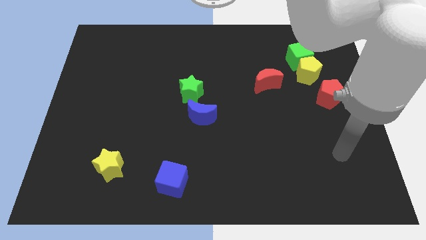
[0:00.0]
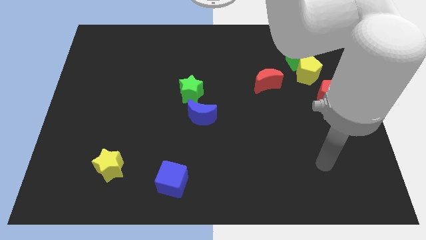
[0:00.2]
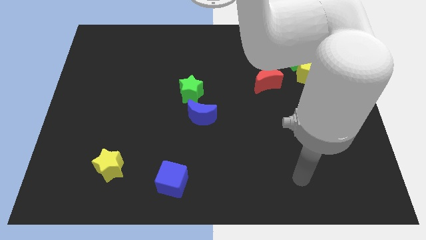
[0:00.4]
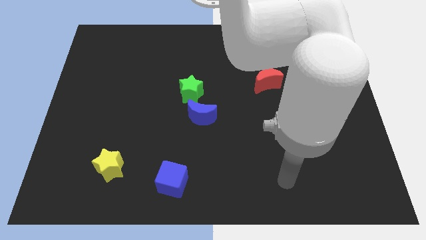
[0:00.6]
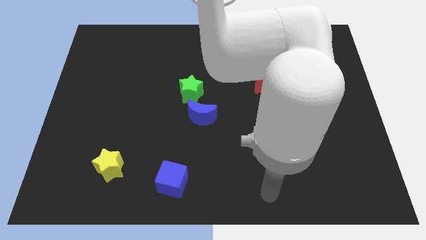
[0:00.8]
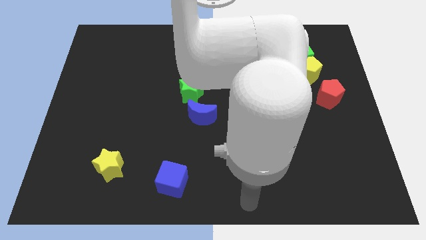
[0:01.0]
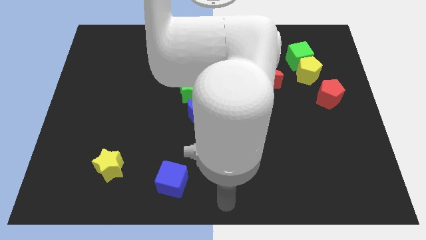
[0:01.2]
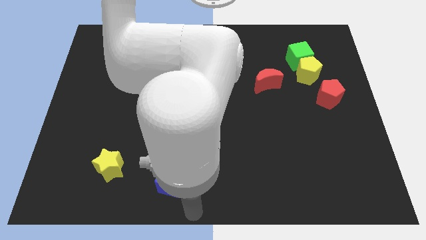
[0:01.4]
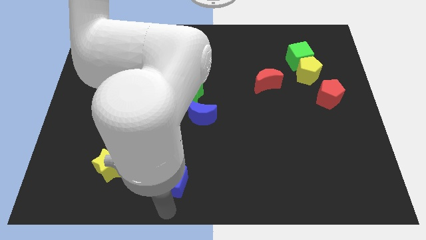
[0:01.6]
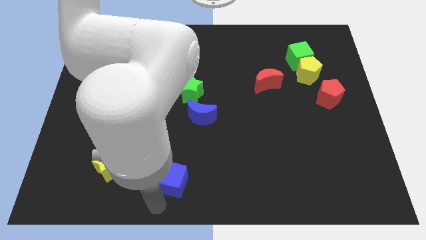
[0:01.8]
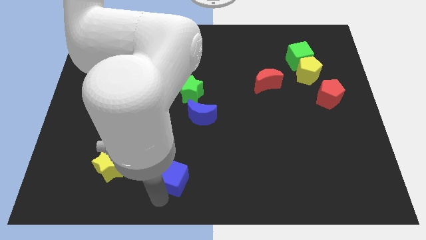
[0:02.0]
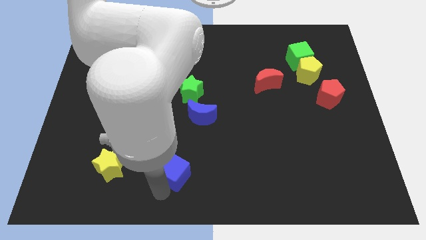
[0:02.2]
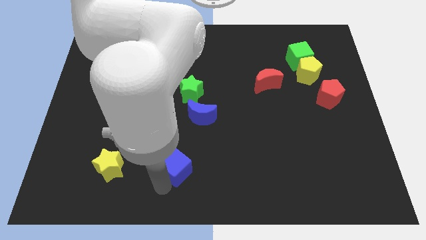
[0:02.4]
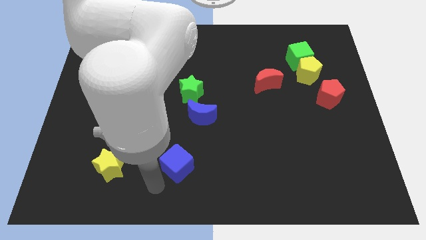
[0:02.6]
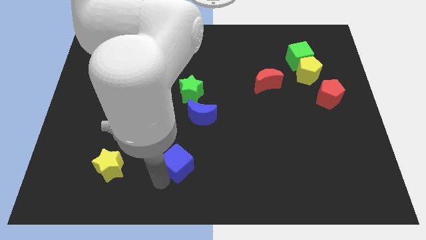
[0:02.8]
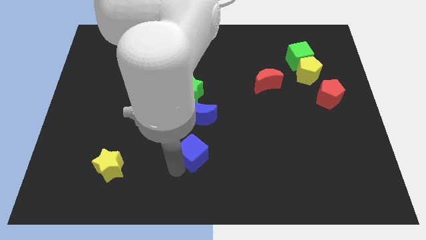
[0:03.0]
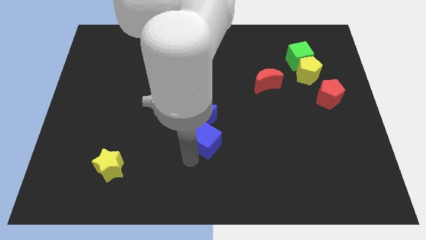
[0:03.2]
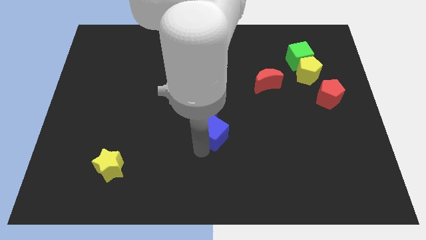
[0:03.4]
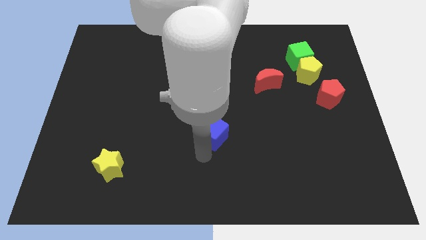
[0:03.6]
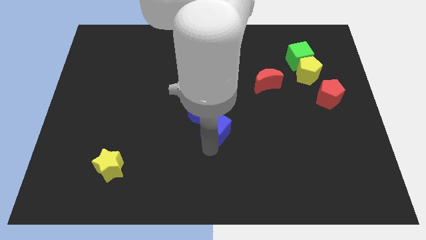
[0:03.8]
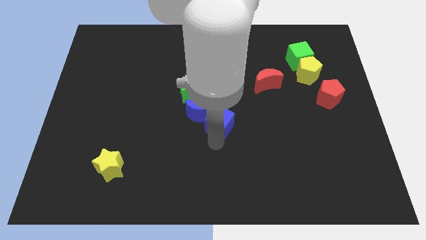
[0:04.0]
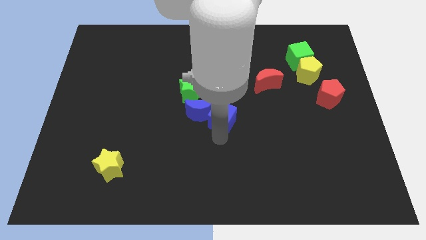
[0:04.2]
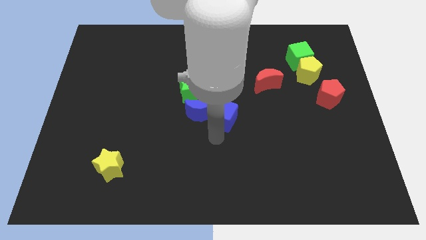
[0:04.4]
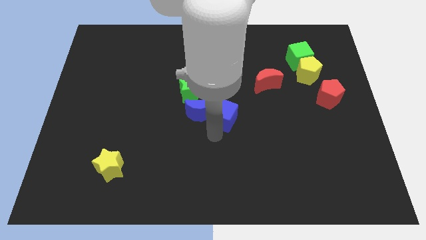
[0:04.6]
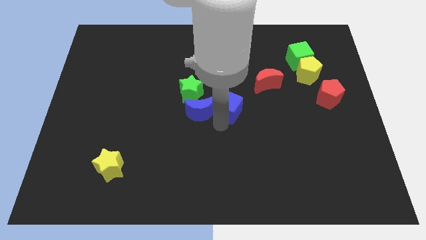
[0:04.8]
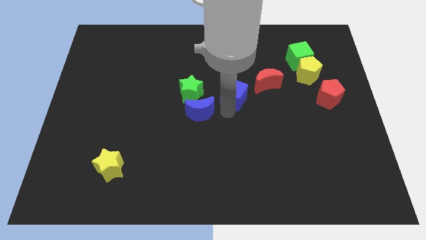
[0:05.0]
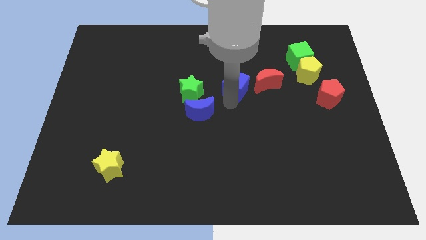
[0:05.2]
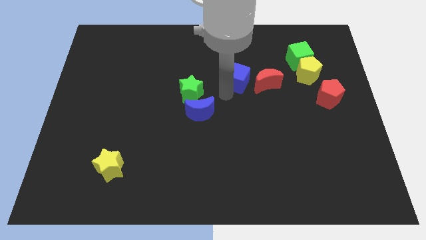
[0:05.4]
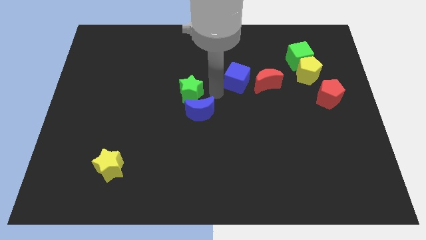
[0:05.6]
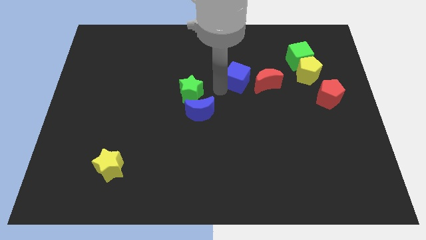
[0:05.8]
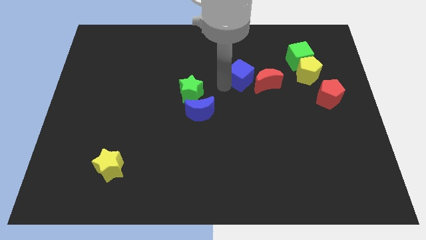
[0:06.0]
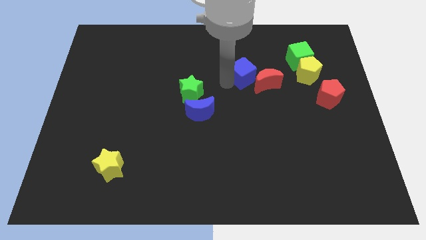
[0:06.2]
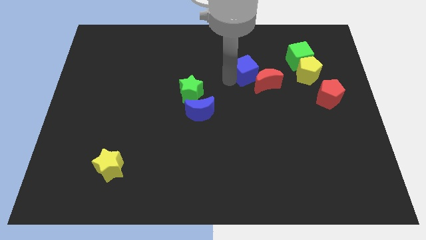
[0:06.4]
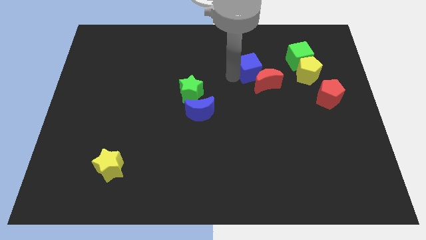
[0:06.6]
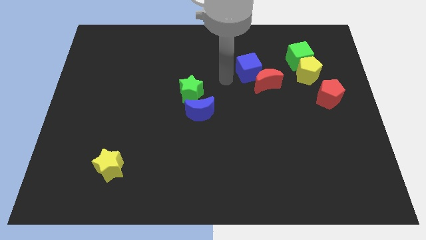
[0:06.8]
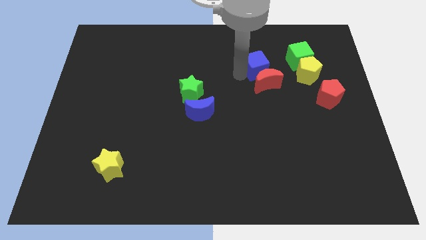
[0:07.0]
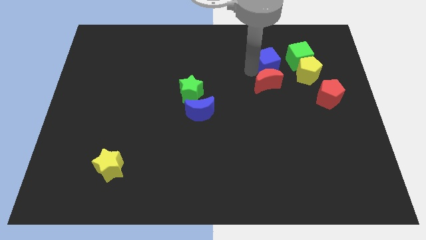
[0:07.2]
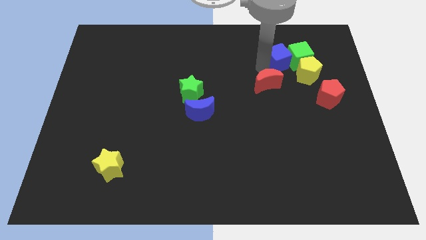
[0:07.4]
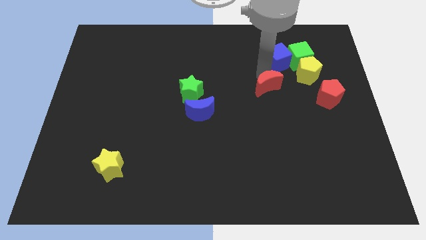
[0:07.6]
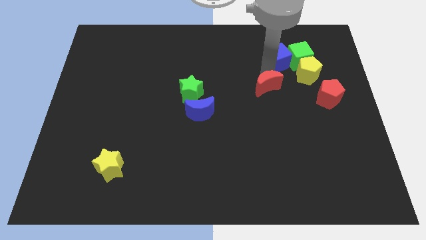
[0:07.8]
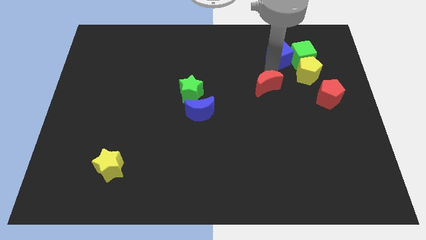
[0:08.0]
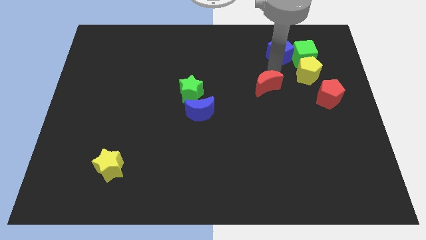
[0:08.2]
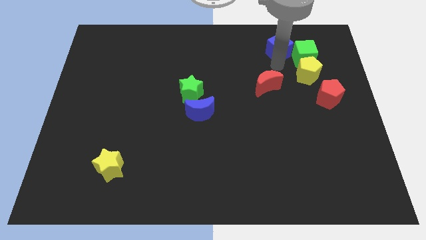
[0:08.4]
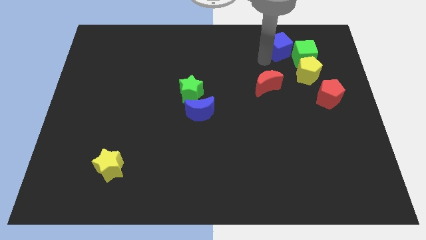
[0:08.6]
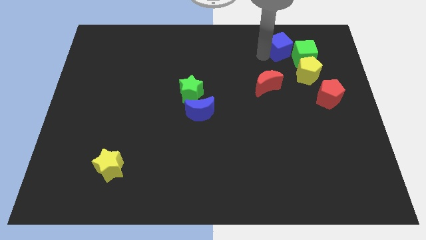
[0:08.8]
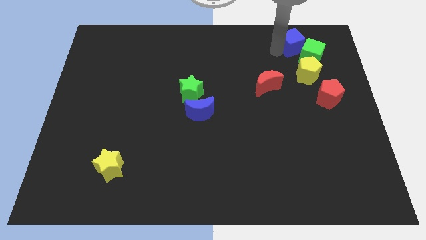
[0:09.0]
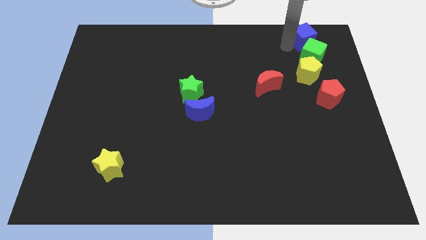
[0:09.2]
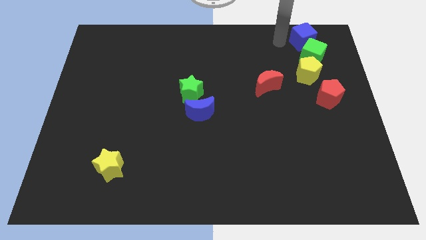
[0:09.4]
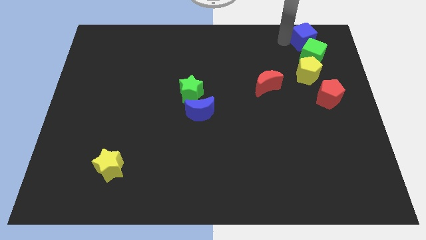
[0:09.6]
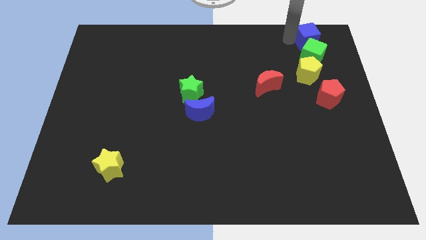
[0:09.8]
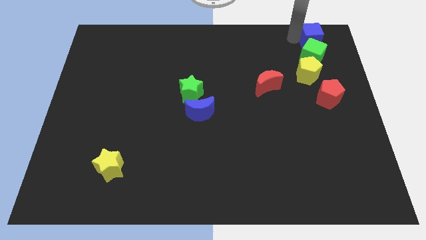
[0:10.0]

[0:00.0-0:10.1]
slide the blue cube to the top right of the board

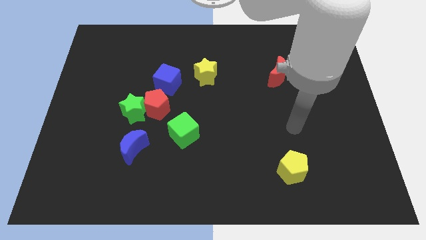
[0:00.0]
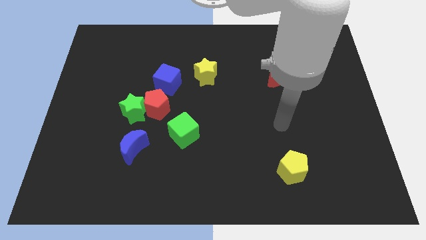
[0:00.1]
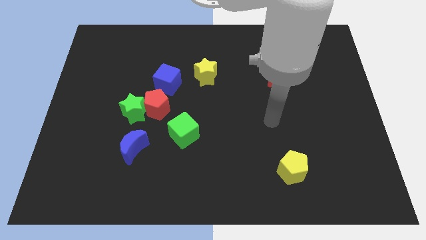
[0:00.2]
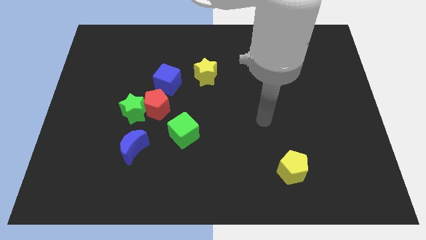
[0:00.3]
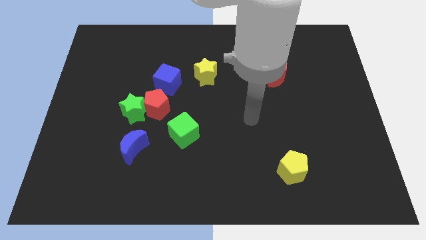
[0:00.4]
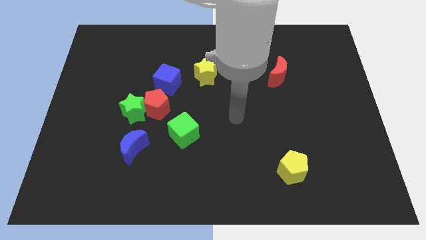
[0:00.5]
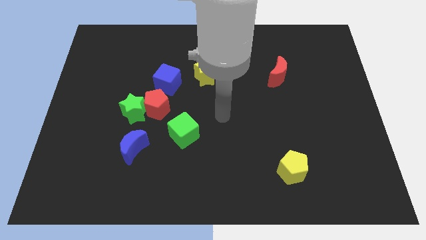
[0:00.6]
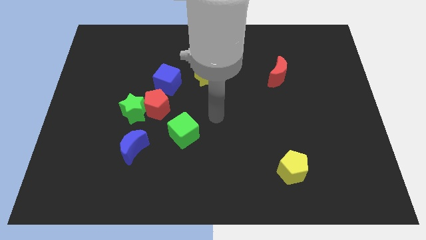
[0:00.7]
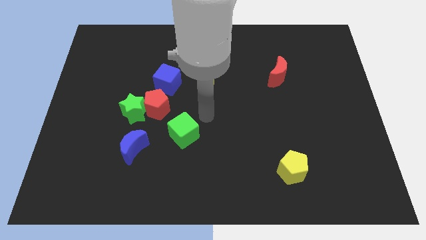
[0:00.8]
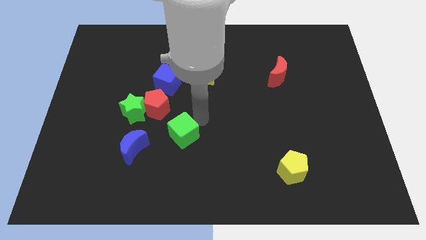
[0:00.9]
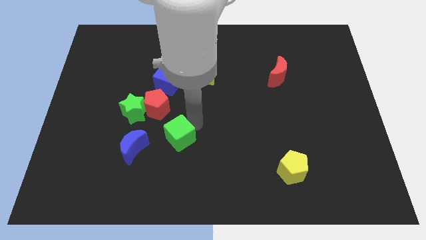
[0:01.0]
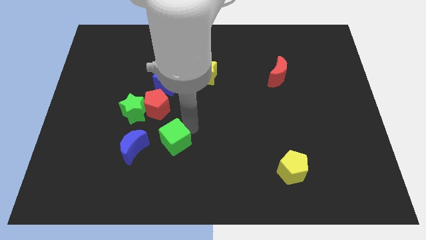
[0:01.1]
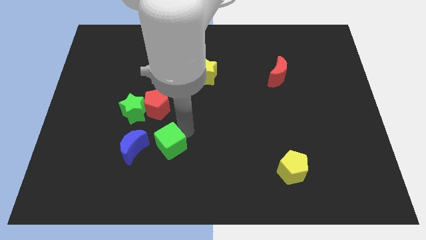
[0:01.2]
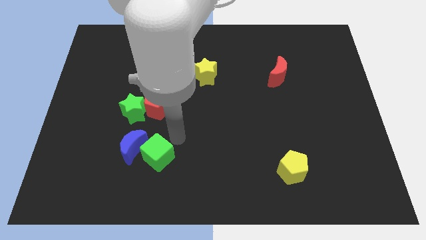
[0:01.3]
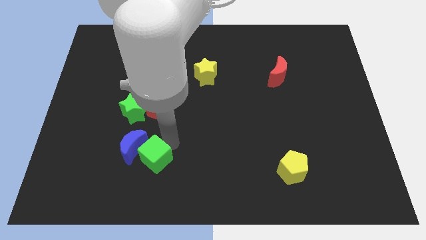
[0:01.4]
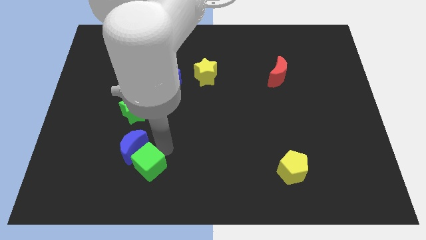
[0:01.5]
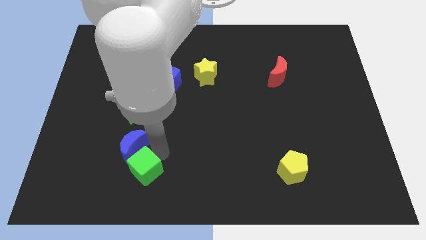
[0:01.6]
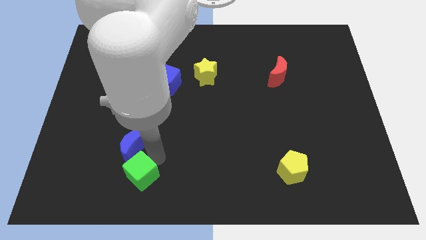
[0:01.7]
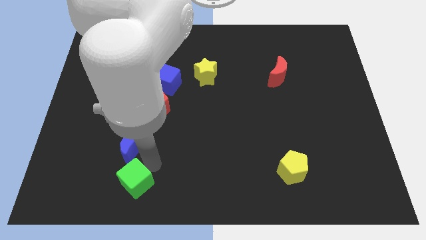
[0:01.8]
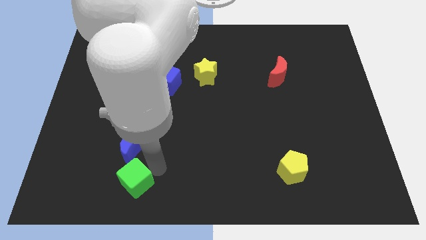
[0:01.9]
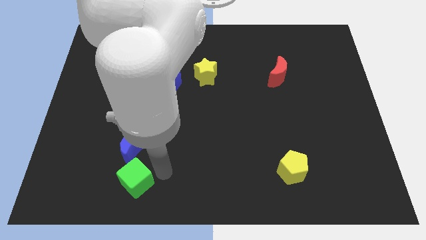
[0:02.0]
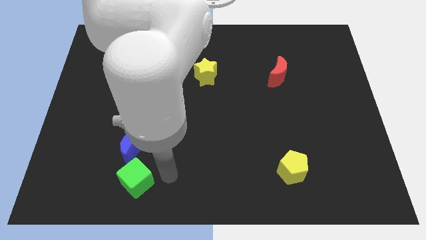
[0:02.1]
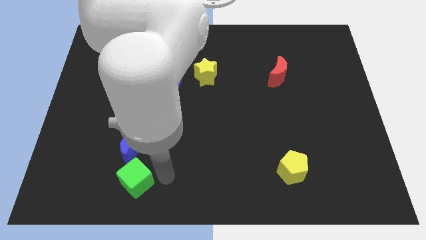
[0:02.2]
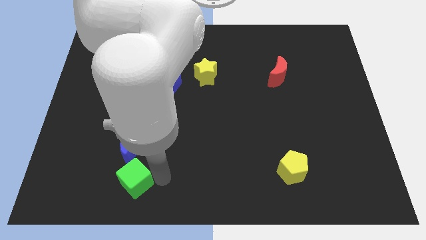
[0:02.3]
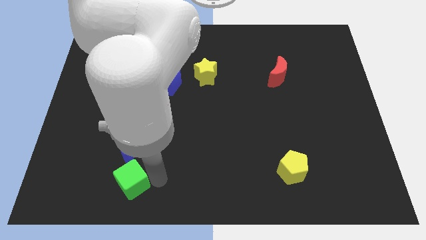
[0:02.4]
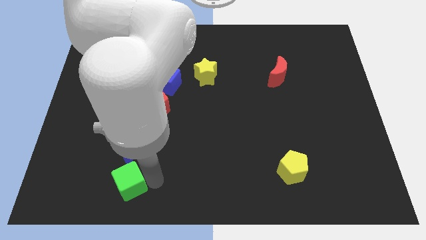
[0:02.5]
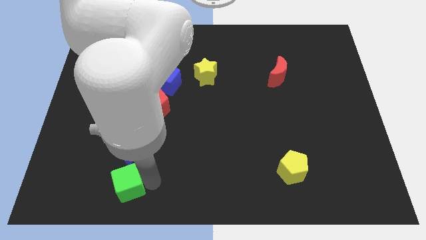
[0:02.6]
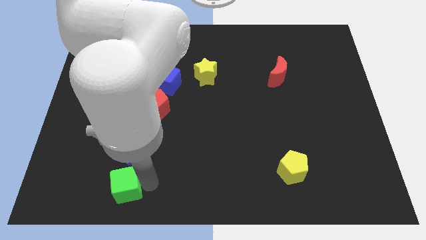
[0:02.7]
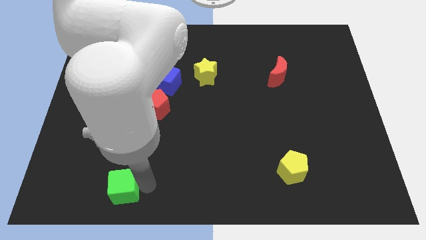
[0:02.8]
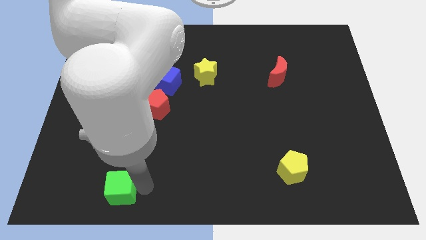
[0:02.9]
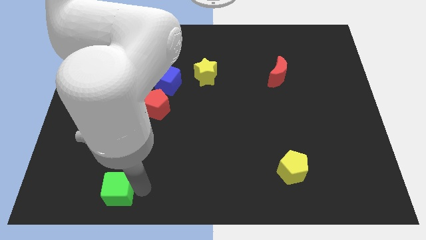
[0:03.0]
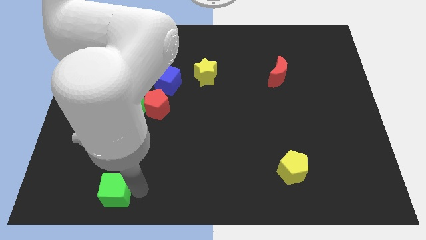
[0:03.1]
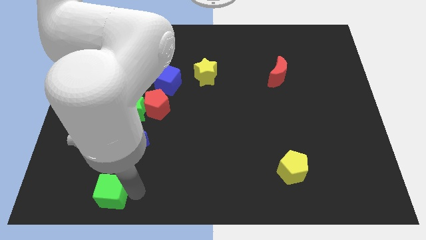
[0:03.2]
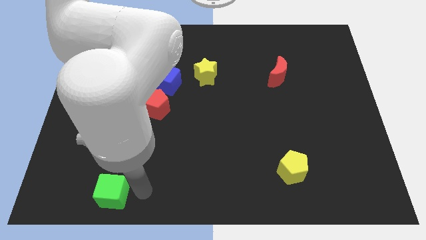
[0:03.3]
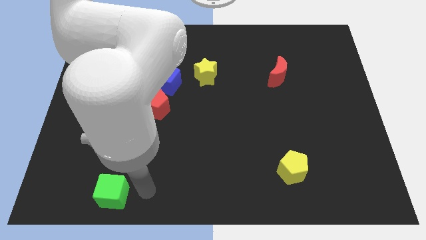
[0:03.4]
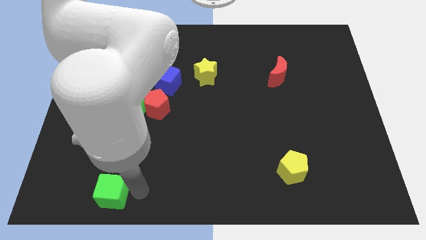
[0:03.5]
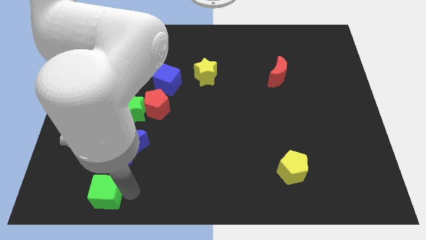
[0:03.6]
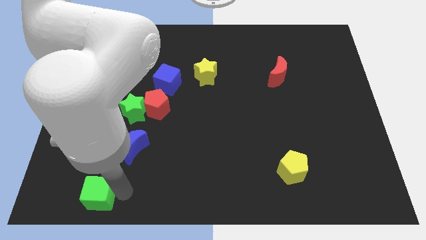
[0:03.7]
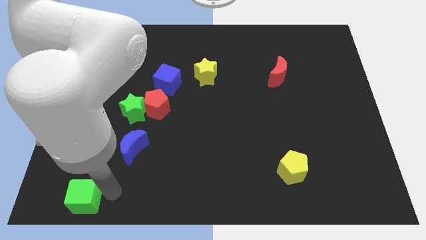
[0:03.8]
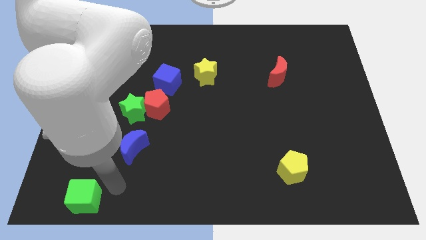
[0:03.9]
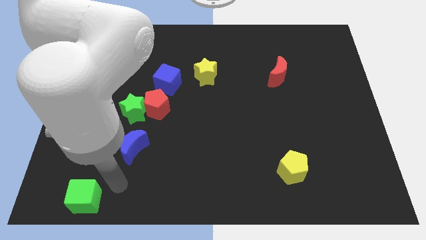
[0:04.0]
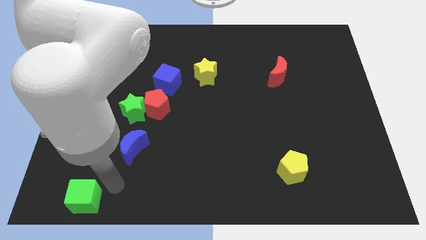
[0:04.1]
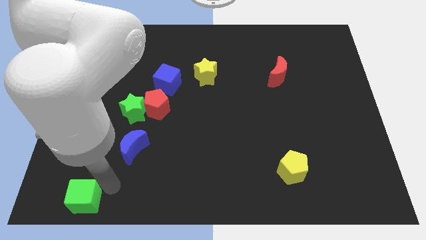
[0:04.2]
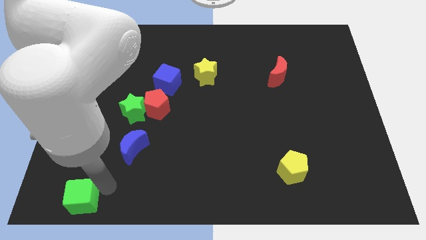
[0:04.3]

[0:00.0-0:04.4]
move the green cube to the bottom left corner
